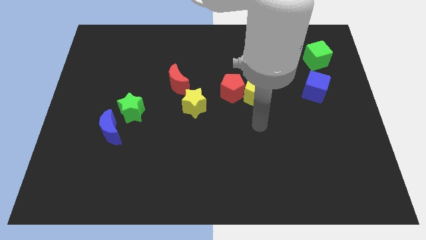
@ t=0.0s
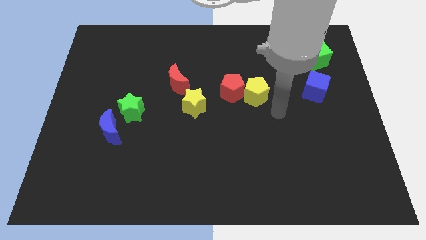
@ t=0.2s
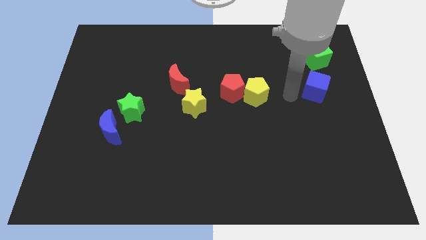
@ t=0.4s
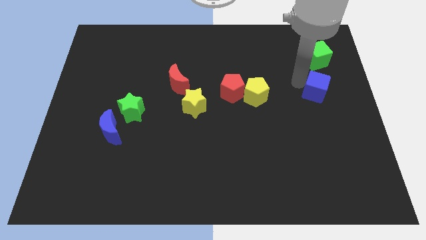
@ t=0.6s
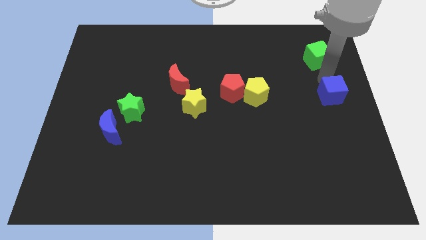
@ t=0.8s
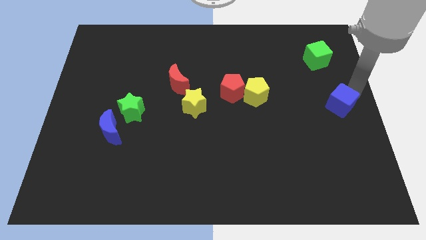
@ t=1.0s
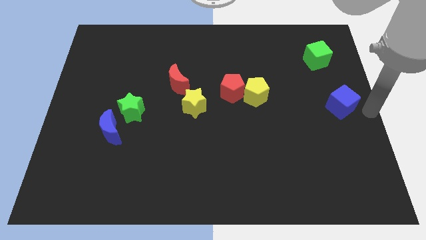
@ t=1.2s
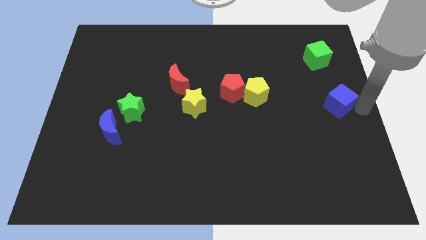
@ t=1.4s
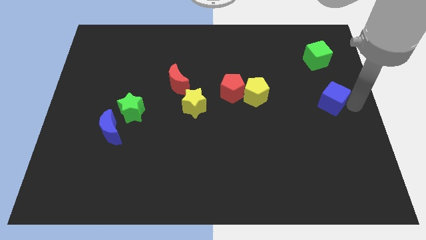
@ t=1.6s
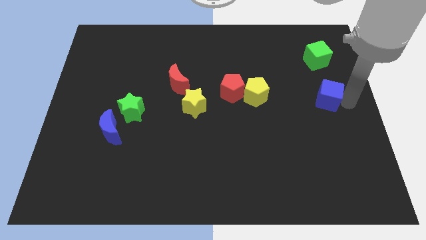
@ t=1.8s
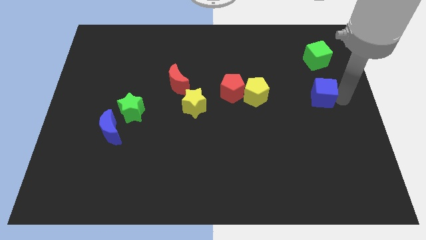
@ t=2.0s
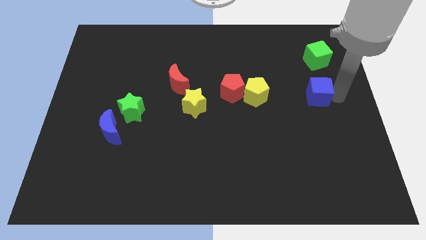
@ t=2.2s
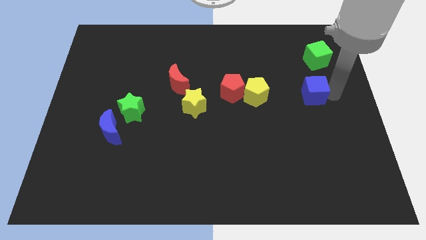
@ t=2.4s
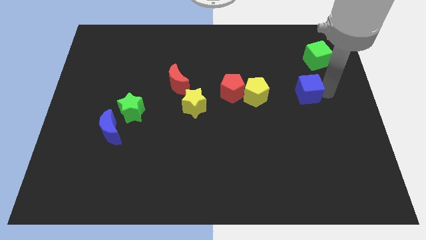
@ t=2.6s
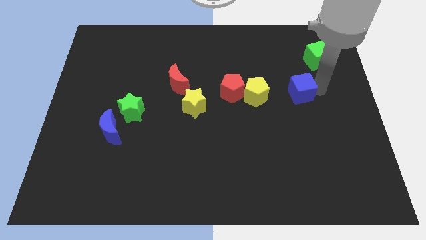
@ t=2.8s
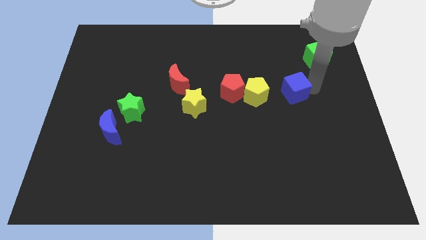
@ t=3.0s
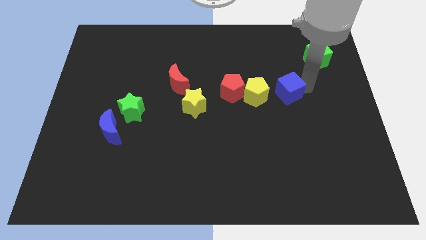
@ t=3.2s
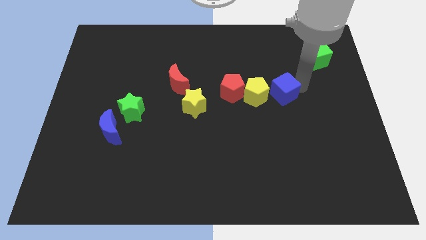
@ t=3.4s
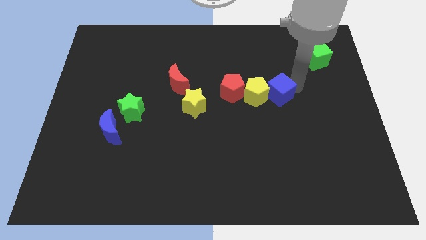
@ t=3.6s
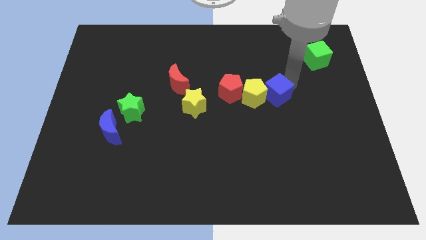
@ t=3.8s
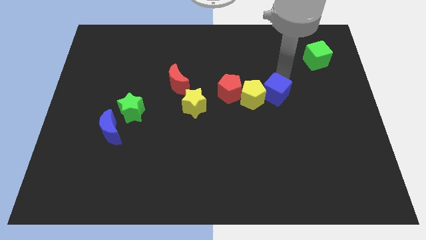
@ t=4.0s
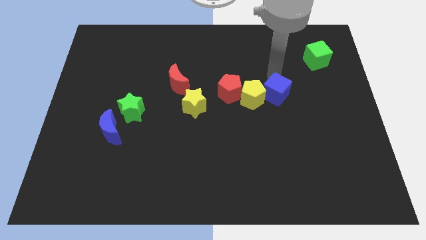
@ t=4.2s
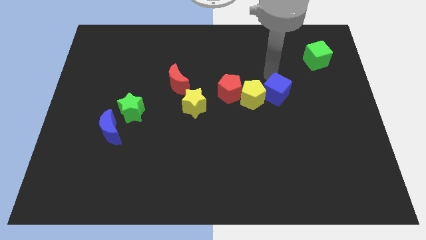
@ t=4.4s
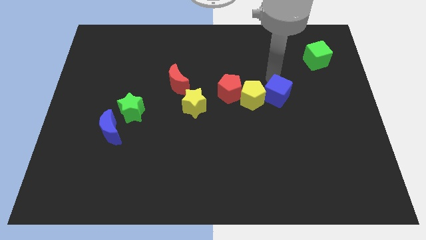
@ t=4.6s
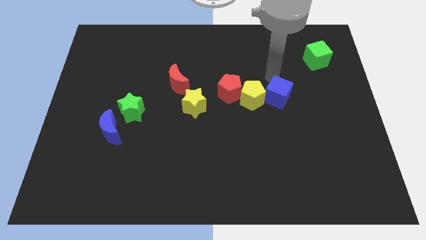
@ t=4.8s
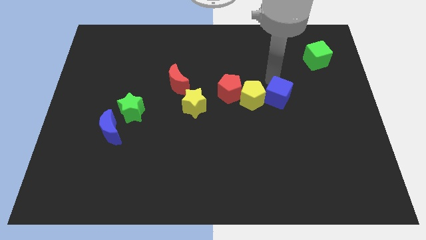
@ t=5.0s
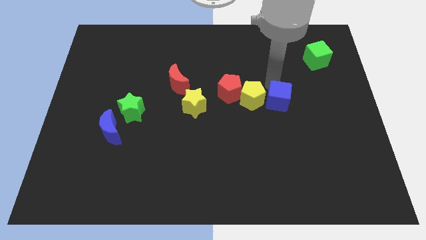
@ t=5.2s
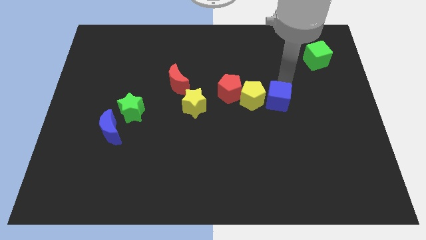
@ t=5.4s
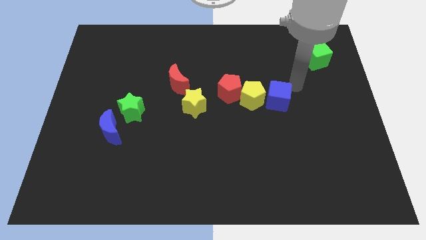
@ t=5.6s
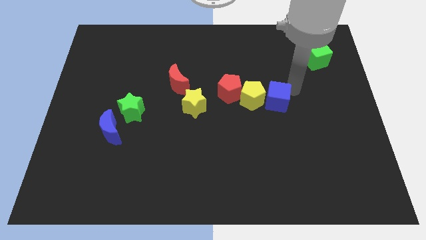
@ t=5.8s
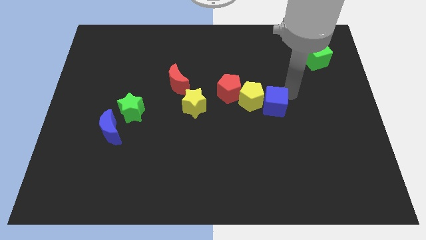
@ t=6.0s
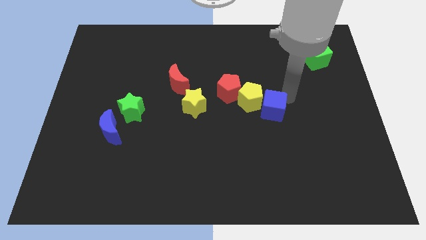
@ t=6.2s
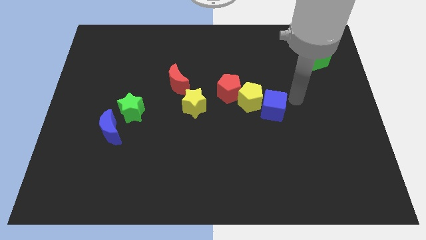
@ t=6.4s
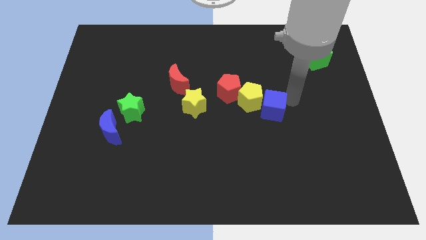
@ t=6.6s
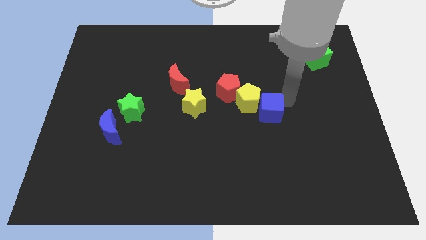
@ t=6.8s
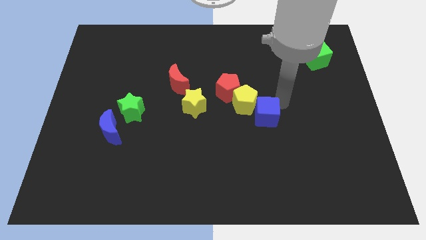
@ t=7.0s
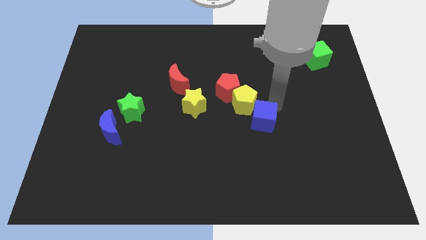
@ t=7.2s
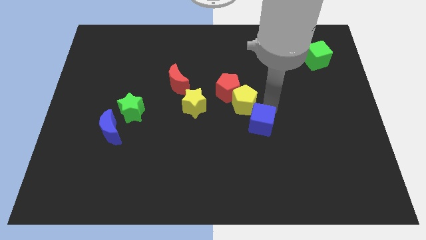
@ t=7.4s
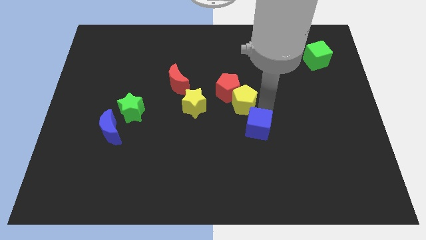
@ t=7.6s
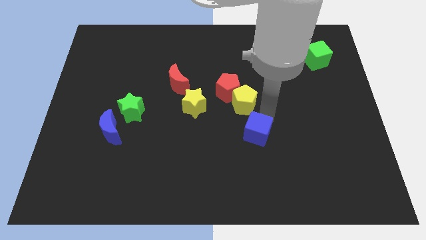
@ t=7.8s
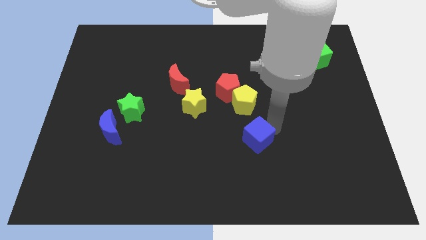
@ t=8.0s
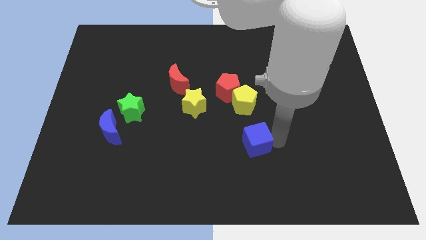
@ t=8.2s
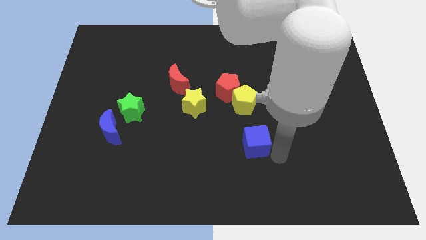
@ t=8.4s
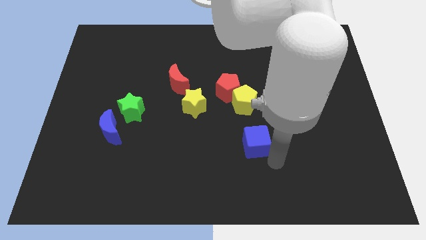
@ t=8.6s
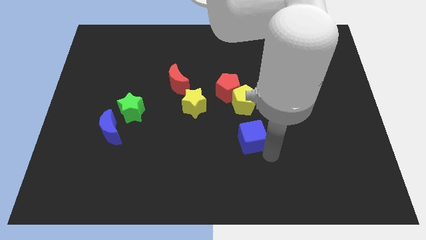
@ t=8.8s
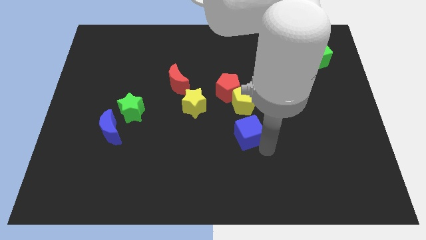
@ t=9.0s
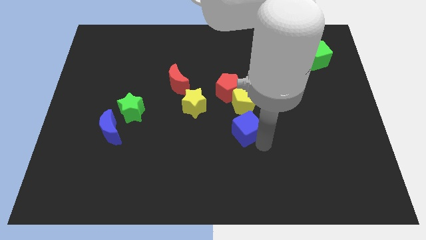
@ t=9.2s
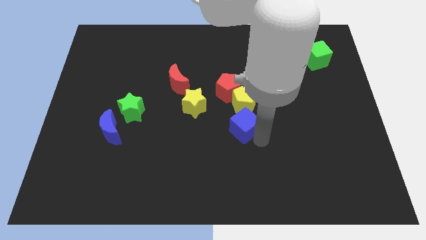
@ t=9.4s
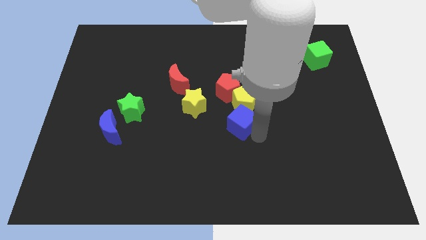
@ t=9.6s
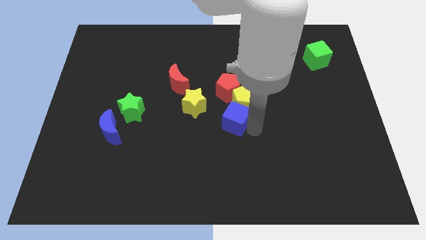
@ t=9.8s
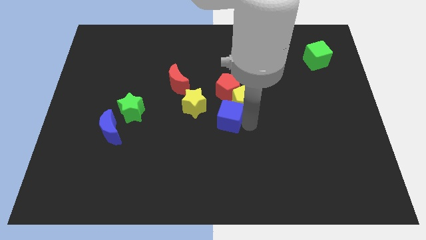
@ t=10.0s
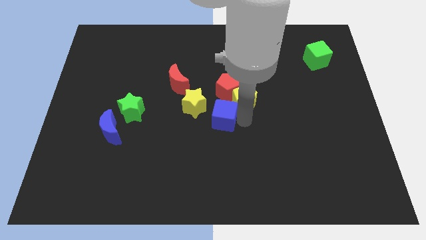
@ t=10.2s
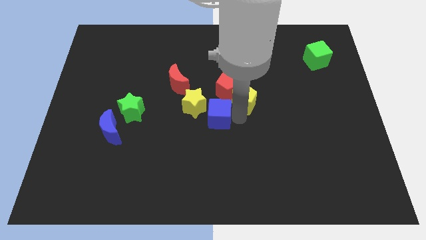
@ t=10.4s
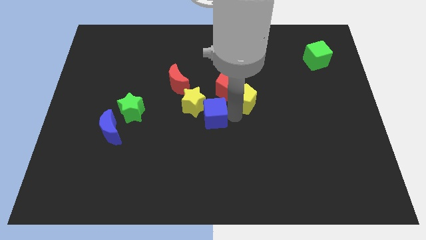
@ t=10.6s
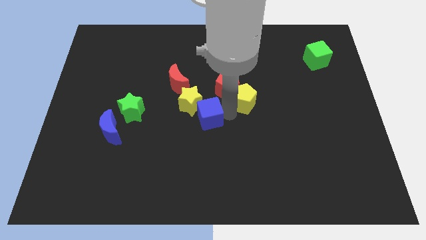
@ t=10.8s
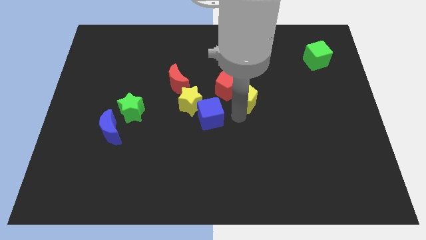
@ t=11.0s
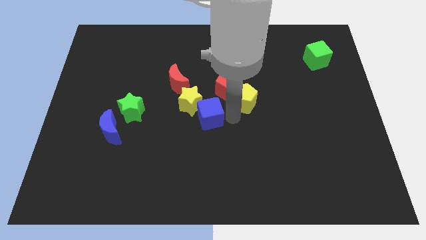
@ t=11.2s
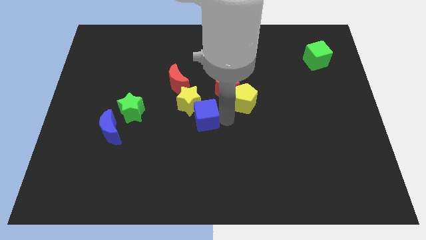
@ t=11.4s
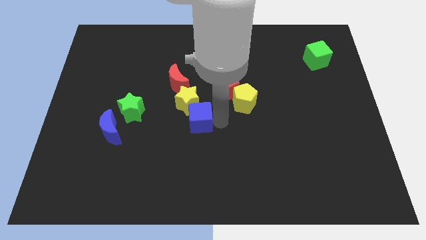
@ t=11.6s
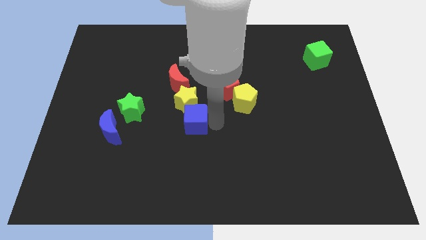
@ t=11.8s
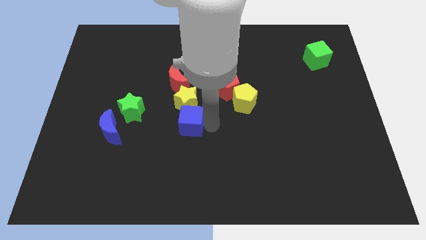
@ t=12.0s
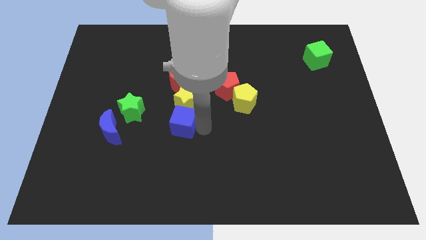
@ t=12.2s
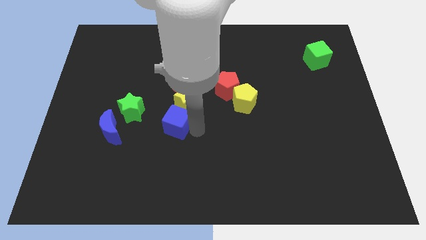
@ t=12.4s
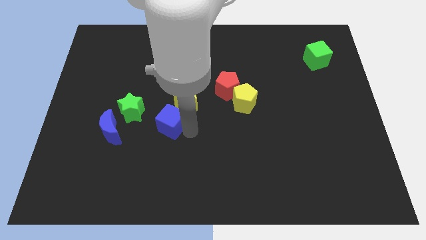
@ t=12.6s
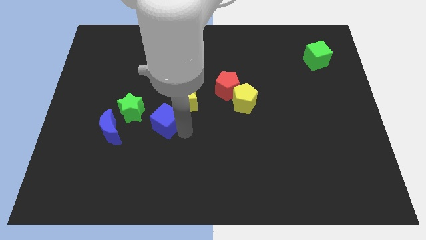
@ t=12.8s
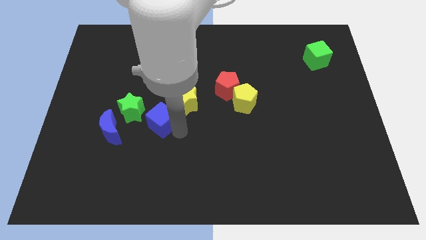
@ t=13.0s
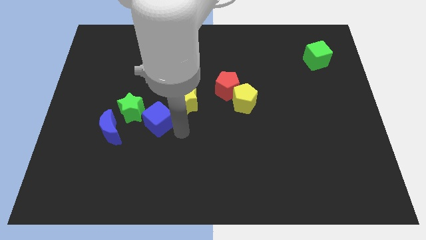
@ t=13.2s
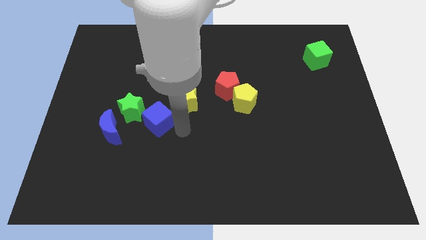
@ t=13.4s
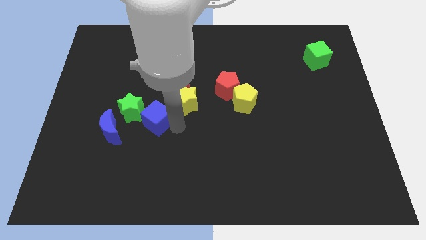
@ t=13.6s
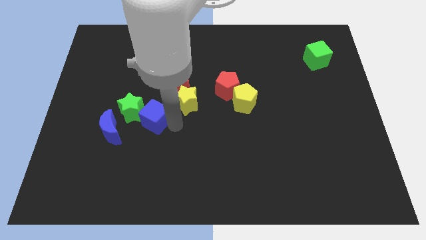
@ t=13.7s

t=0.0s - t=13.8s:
slide the blue cube close to the green star

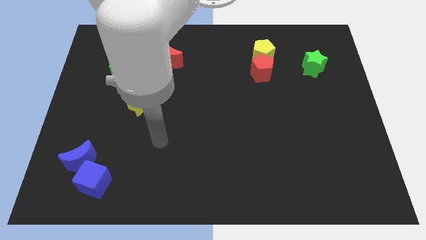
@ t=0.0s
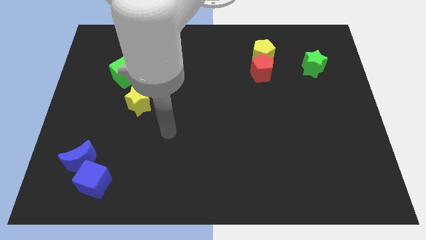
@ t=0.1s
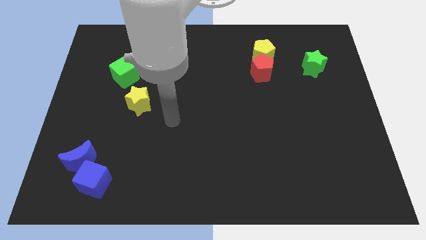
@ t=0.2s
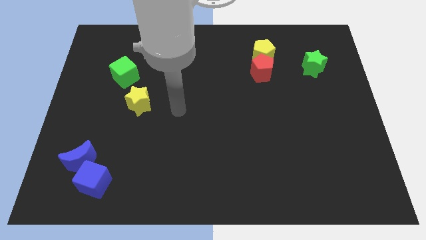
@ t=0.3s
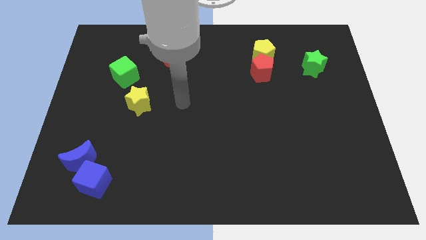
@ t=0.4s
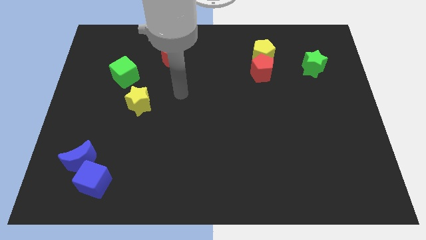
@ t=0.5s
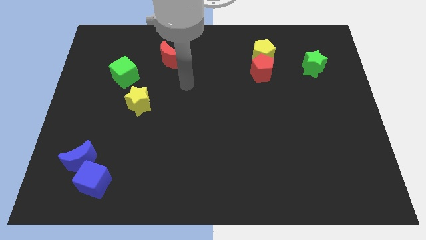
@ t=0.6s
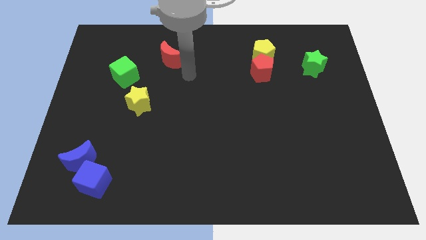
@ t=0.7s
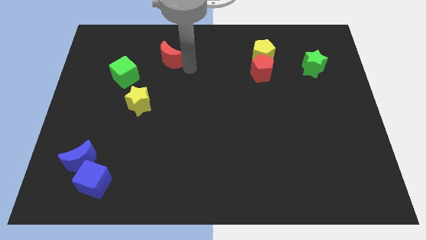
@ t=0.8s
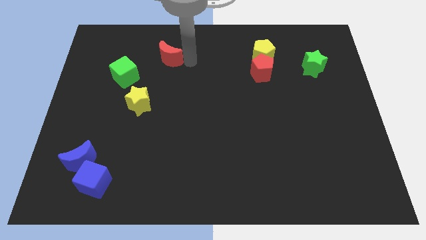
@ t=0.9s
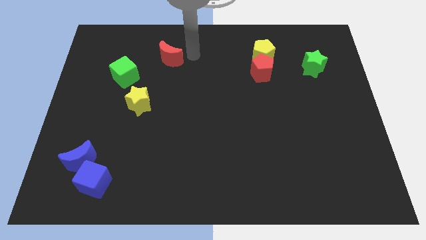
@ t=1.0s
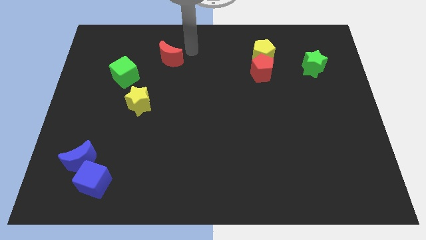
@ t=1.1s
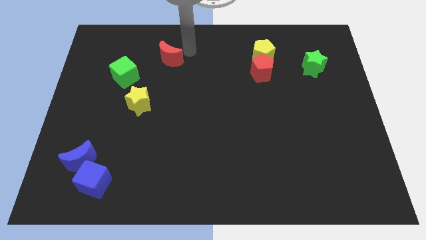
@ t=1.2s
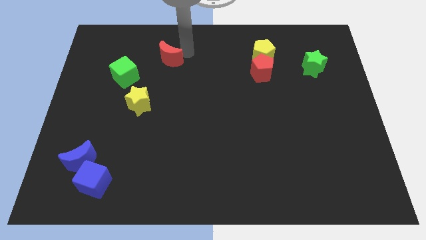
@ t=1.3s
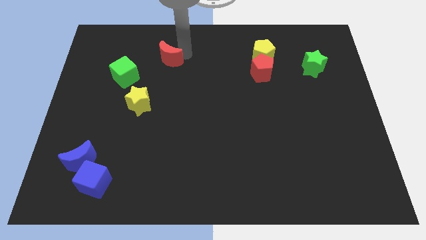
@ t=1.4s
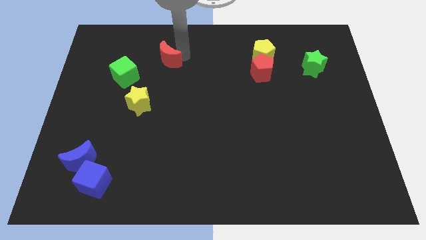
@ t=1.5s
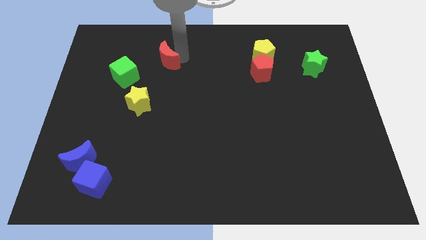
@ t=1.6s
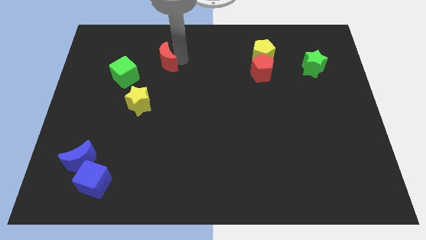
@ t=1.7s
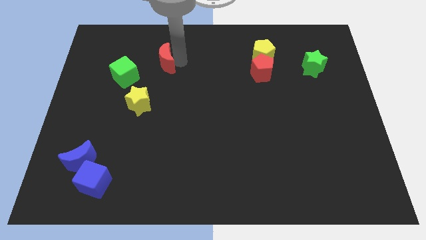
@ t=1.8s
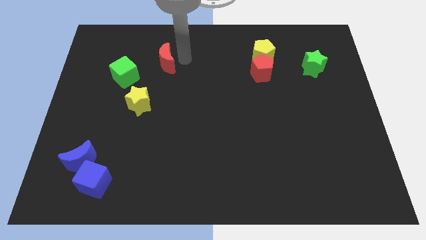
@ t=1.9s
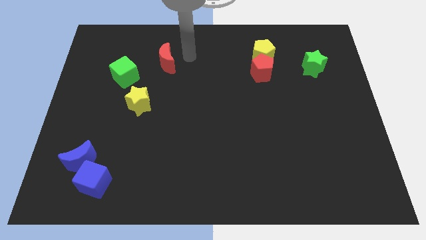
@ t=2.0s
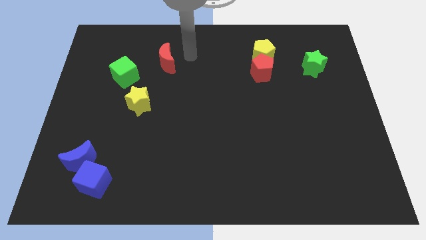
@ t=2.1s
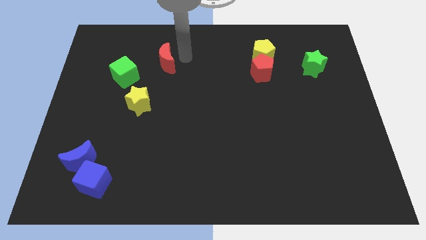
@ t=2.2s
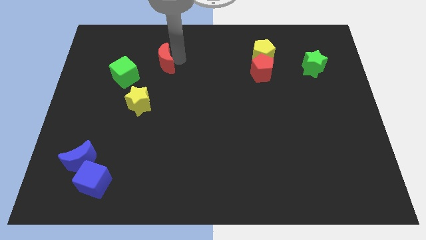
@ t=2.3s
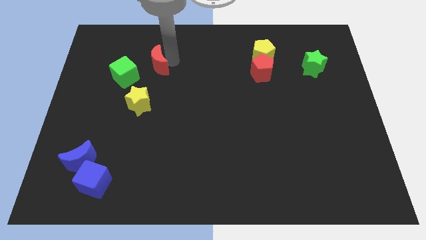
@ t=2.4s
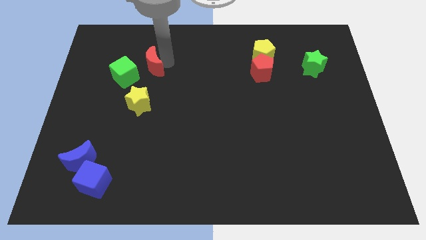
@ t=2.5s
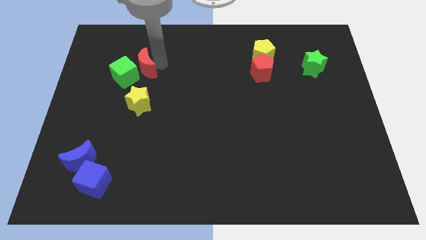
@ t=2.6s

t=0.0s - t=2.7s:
slide the red moon next to the green cube
